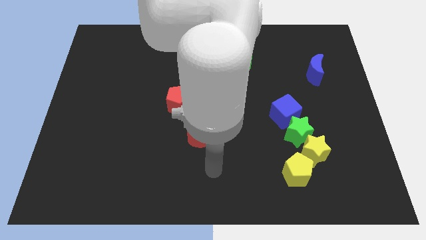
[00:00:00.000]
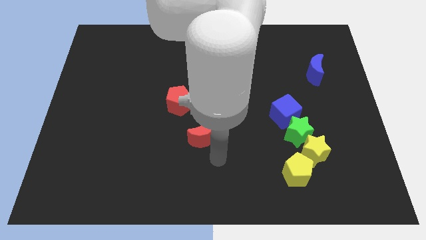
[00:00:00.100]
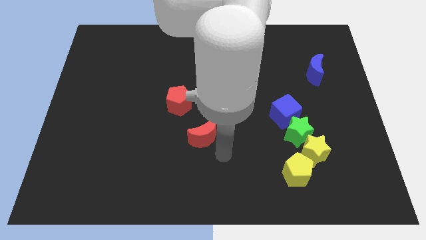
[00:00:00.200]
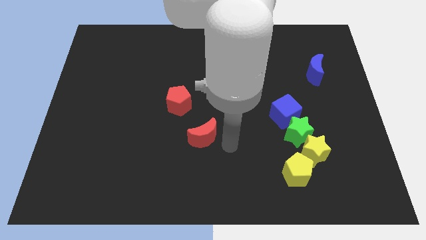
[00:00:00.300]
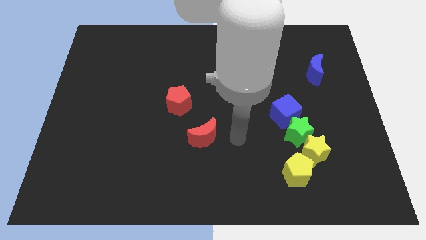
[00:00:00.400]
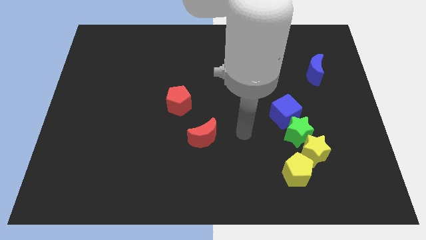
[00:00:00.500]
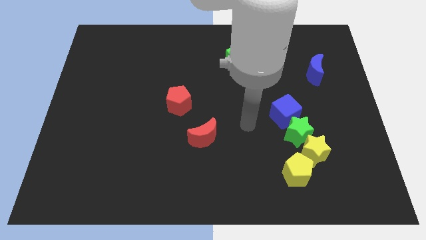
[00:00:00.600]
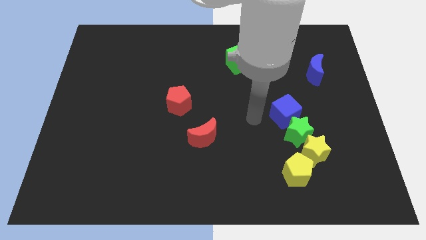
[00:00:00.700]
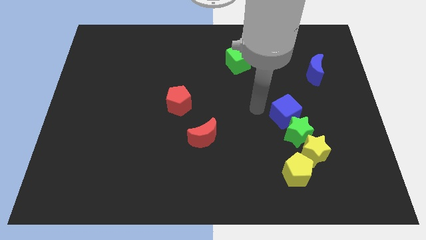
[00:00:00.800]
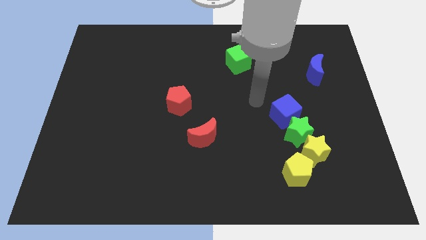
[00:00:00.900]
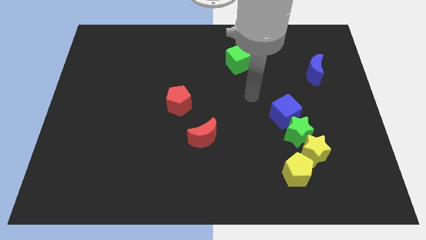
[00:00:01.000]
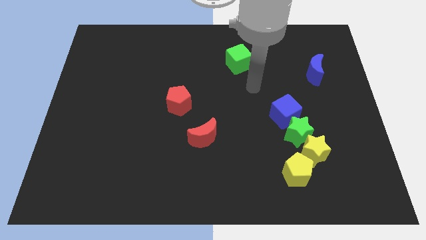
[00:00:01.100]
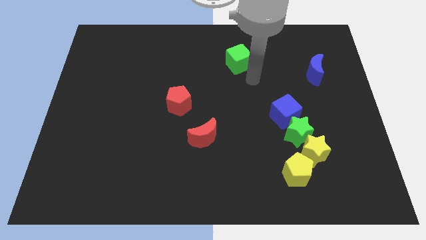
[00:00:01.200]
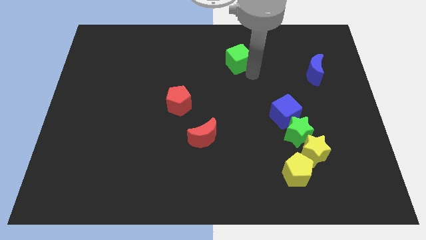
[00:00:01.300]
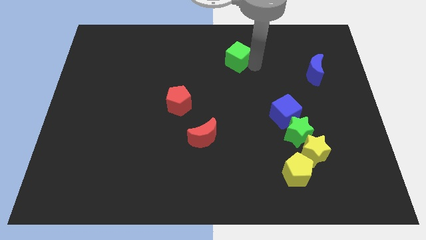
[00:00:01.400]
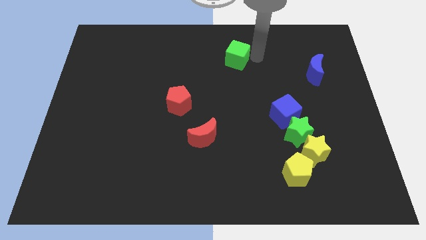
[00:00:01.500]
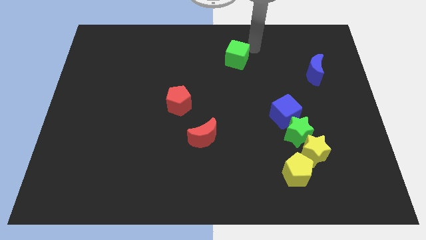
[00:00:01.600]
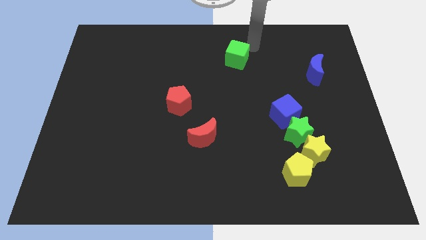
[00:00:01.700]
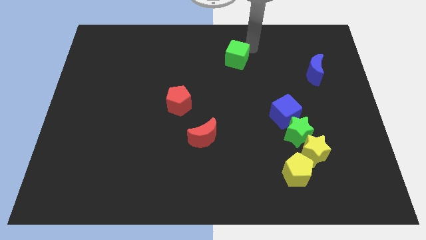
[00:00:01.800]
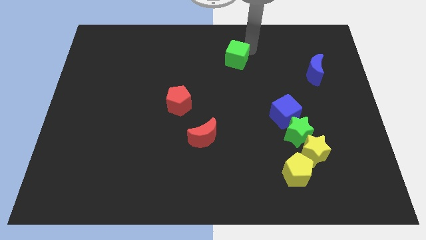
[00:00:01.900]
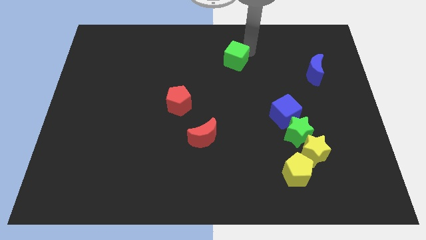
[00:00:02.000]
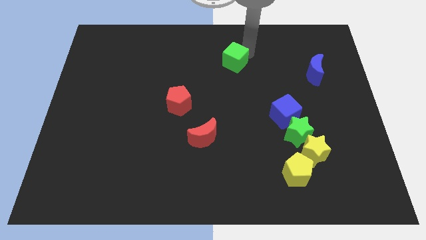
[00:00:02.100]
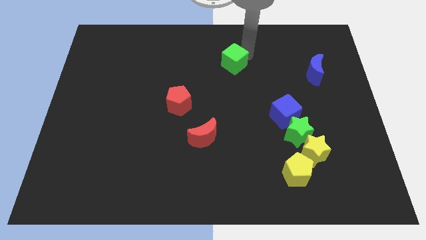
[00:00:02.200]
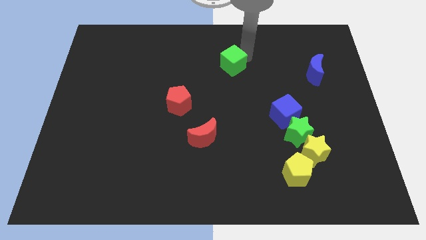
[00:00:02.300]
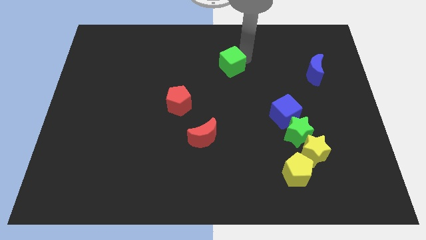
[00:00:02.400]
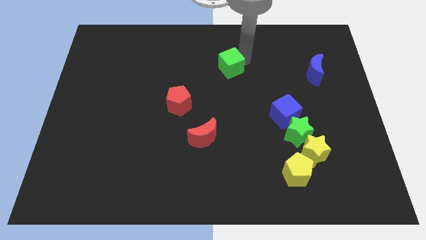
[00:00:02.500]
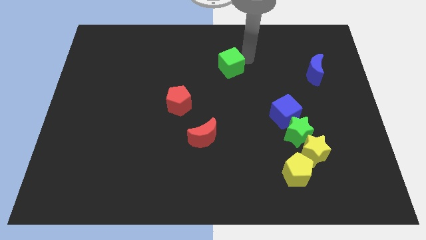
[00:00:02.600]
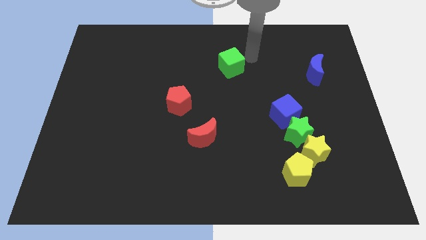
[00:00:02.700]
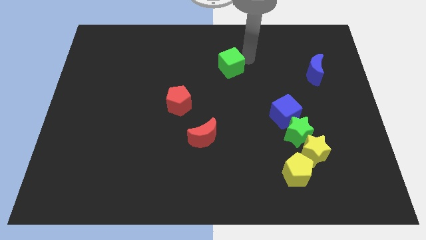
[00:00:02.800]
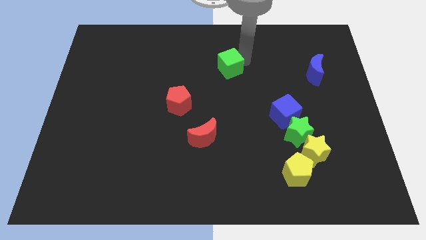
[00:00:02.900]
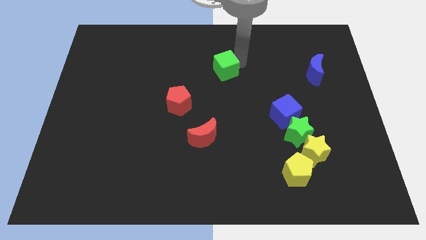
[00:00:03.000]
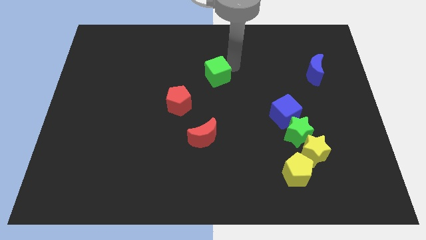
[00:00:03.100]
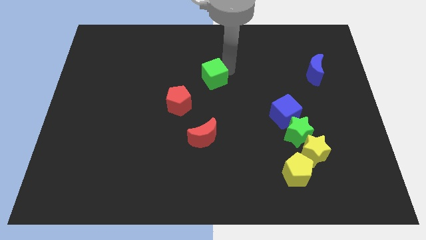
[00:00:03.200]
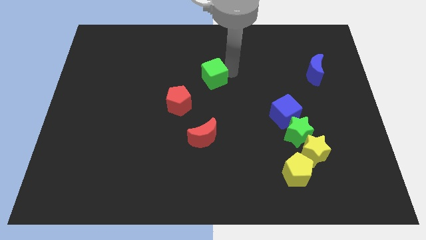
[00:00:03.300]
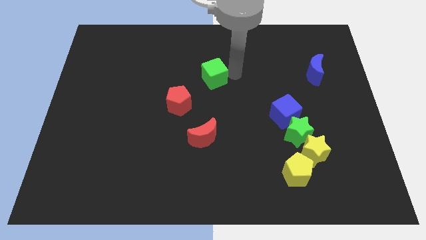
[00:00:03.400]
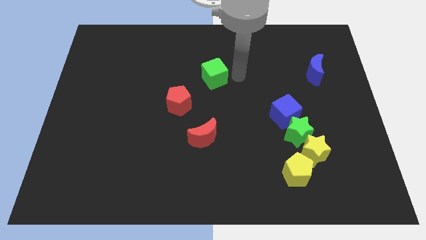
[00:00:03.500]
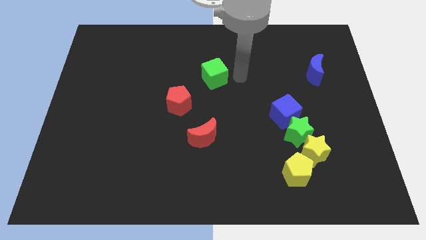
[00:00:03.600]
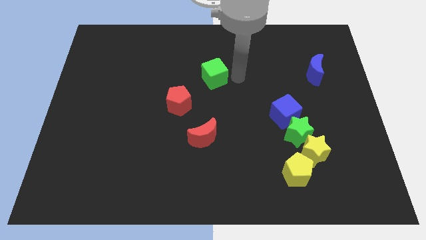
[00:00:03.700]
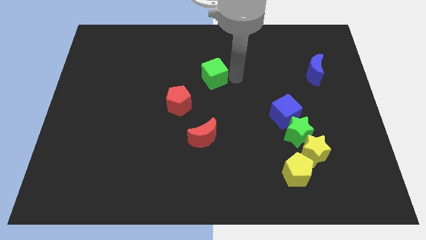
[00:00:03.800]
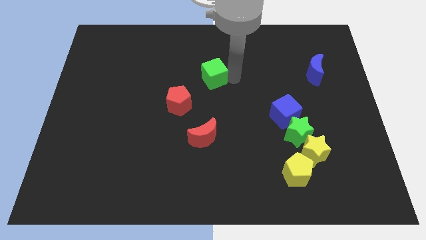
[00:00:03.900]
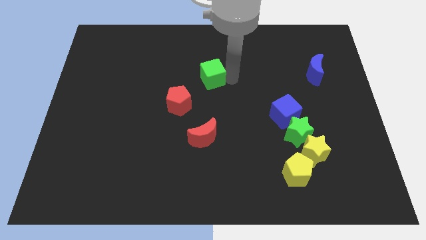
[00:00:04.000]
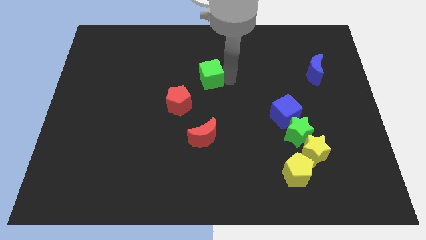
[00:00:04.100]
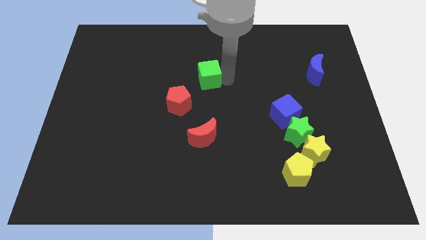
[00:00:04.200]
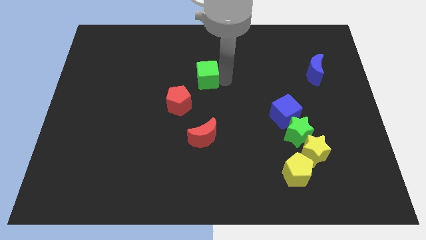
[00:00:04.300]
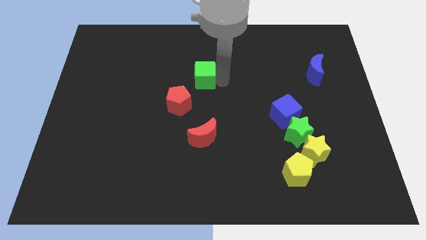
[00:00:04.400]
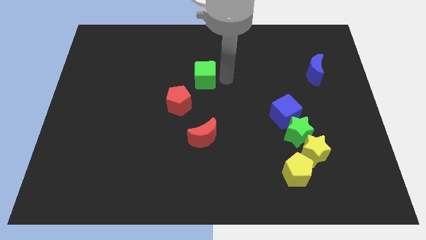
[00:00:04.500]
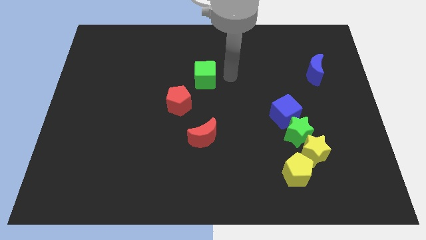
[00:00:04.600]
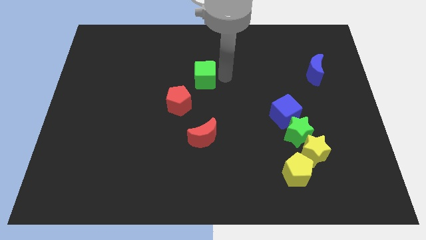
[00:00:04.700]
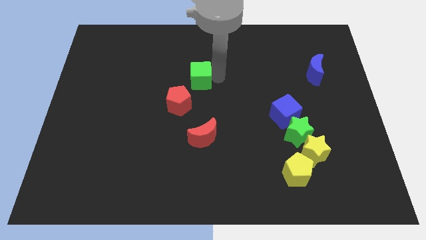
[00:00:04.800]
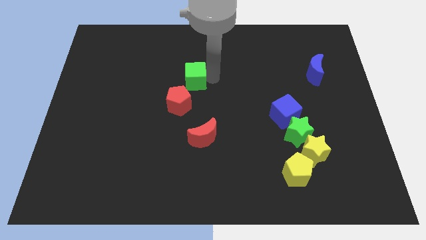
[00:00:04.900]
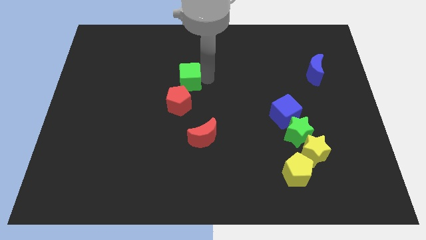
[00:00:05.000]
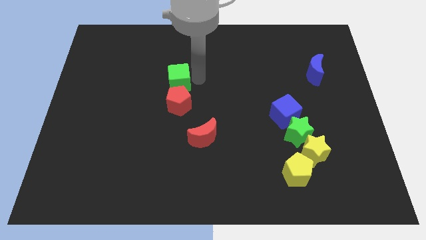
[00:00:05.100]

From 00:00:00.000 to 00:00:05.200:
push the green cube to the top left side of the red pentagon

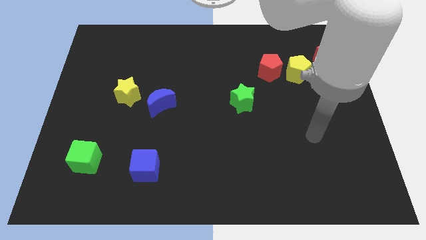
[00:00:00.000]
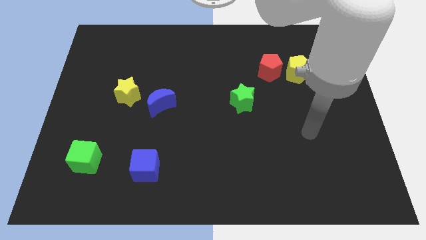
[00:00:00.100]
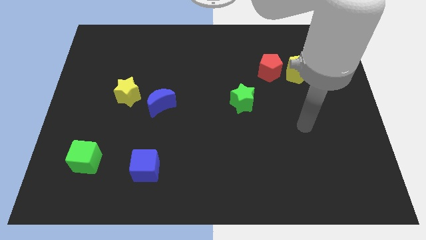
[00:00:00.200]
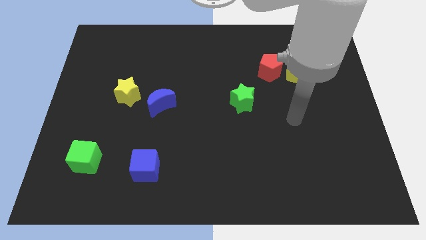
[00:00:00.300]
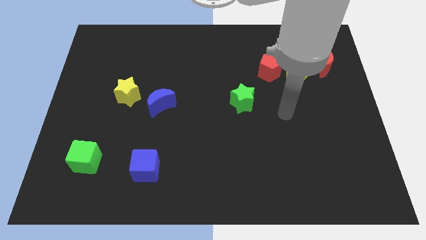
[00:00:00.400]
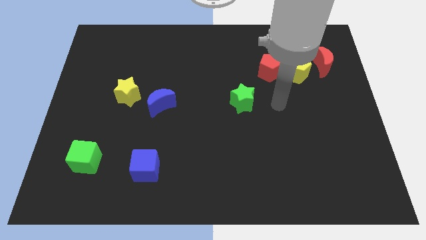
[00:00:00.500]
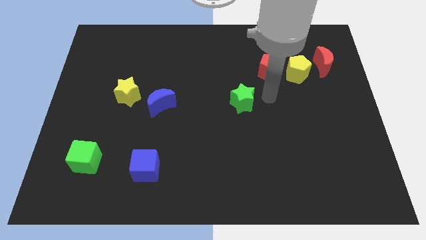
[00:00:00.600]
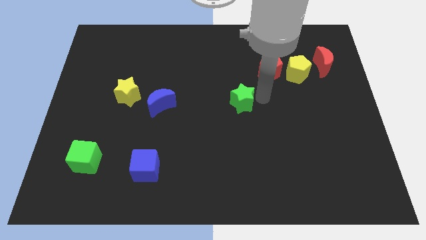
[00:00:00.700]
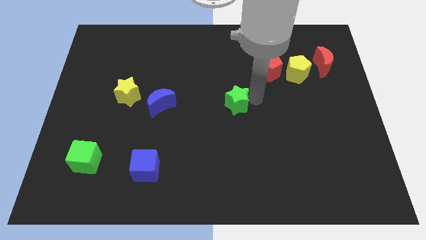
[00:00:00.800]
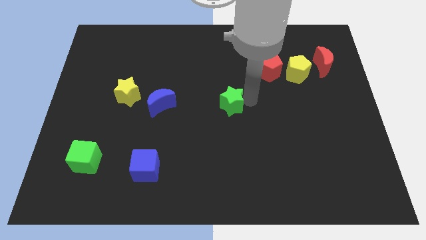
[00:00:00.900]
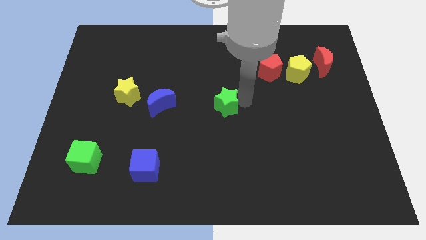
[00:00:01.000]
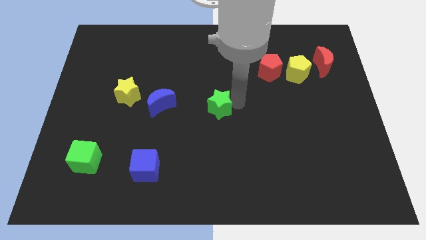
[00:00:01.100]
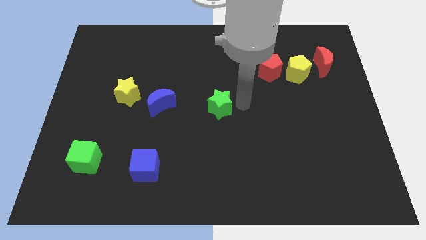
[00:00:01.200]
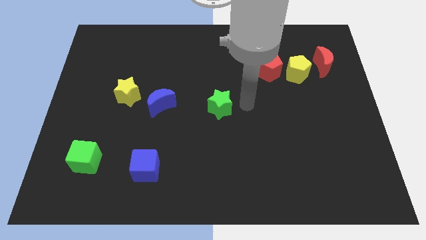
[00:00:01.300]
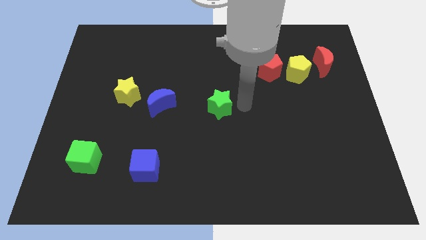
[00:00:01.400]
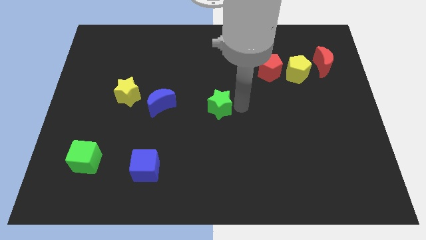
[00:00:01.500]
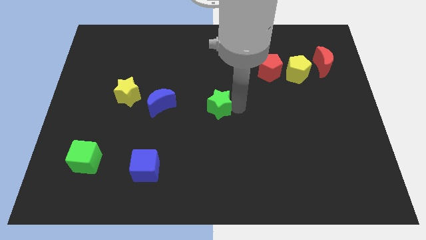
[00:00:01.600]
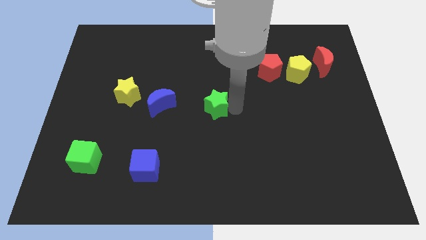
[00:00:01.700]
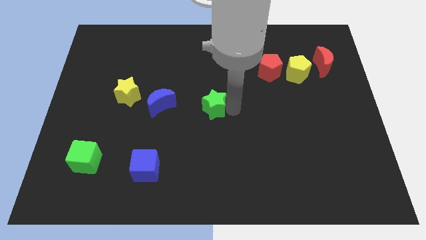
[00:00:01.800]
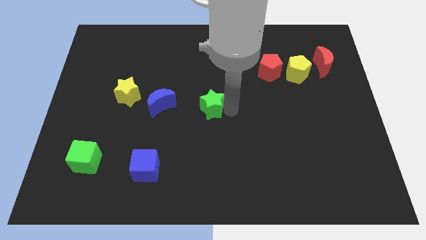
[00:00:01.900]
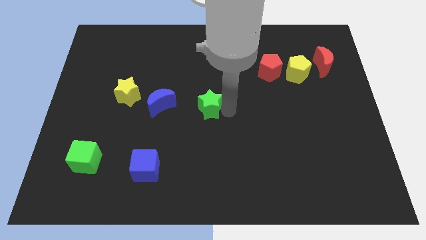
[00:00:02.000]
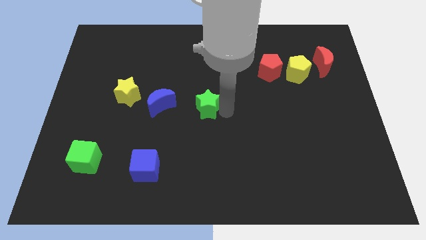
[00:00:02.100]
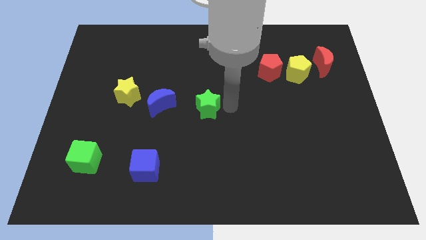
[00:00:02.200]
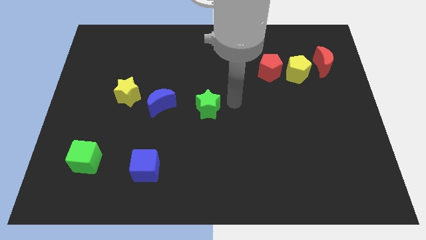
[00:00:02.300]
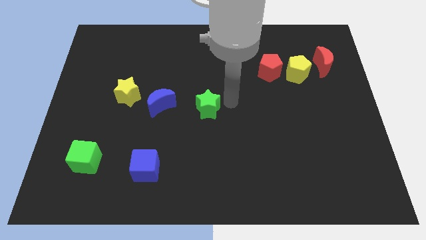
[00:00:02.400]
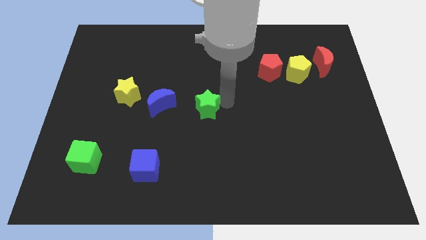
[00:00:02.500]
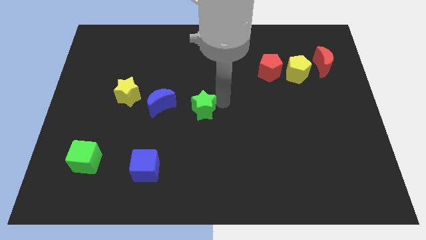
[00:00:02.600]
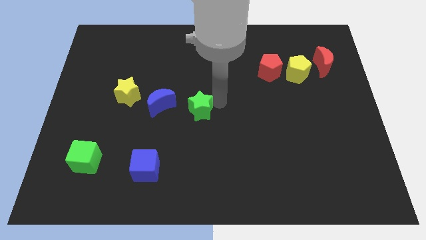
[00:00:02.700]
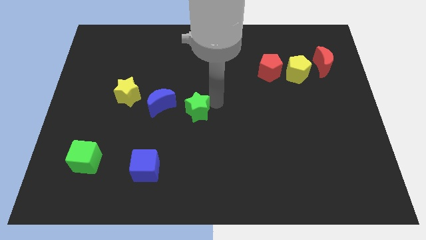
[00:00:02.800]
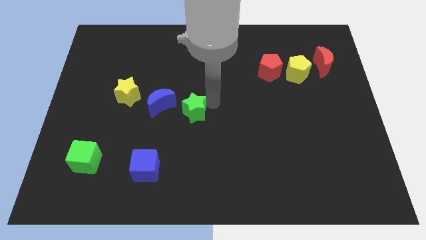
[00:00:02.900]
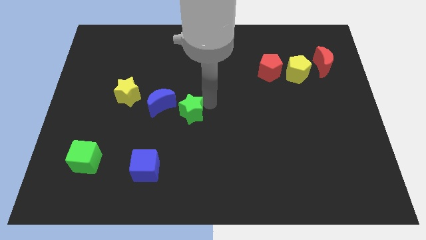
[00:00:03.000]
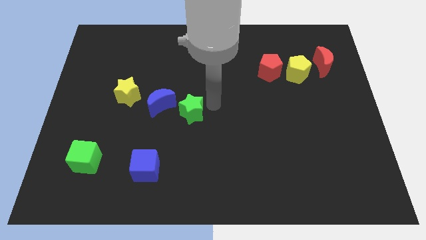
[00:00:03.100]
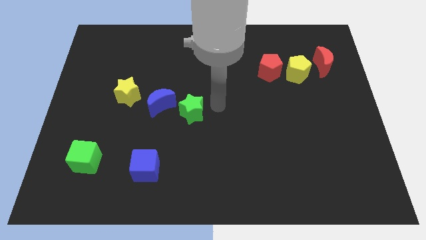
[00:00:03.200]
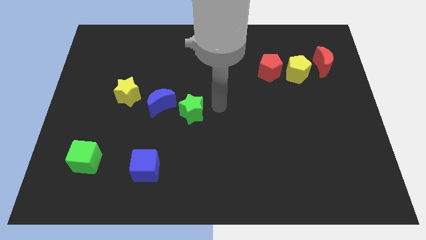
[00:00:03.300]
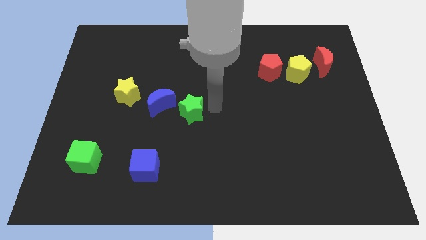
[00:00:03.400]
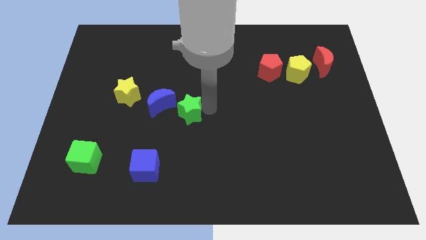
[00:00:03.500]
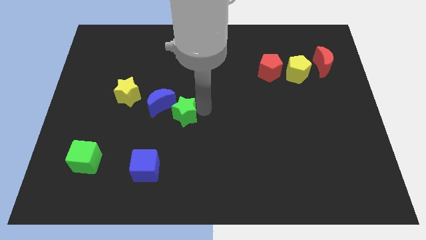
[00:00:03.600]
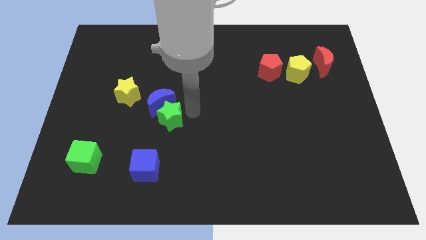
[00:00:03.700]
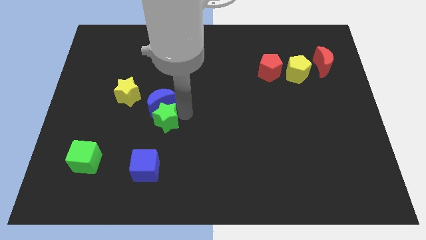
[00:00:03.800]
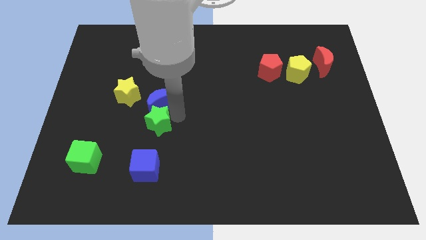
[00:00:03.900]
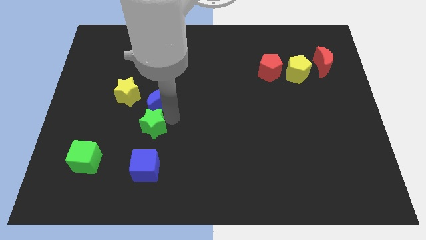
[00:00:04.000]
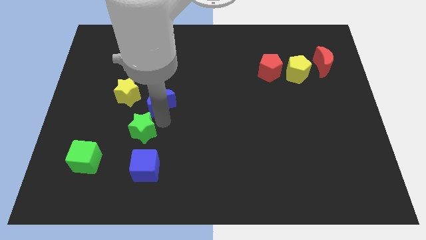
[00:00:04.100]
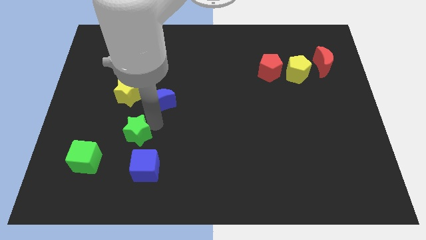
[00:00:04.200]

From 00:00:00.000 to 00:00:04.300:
move the green star to the top left of the blue cube
